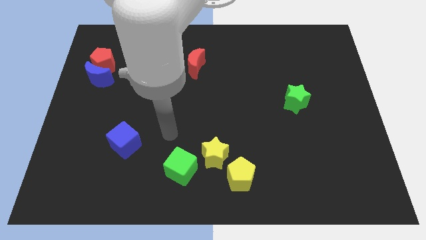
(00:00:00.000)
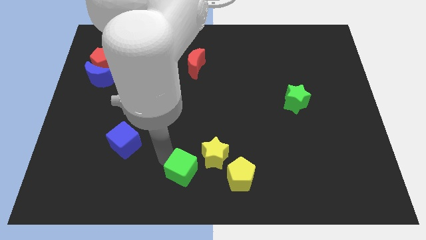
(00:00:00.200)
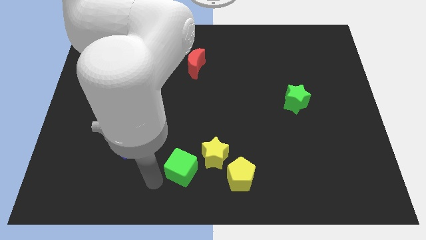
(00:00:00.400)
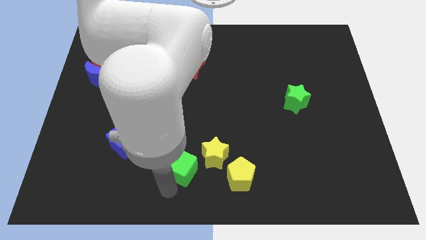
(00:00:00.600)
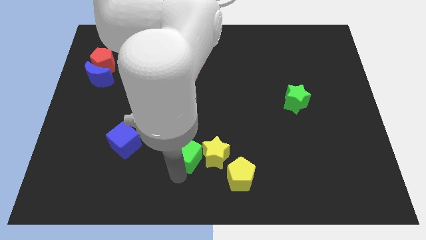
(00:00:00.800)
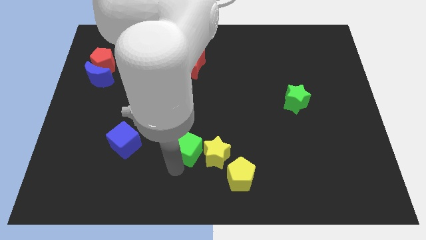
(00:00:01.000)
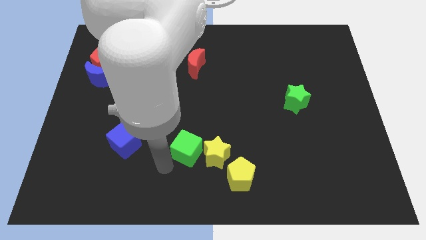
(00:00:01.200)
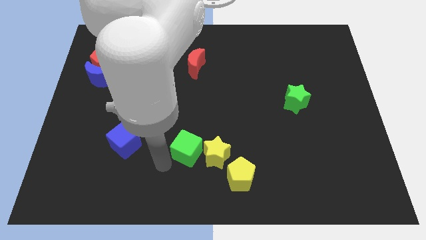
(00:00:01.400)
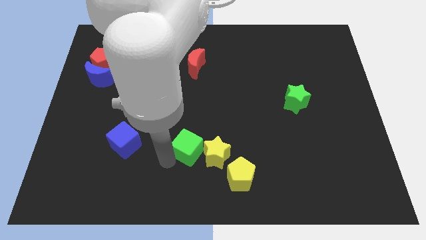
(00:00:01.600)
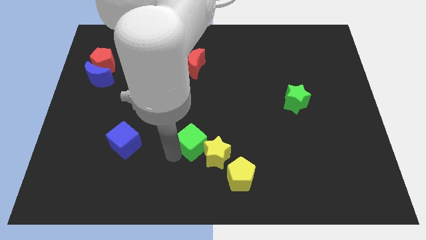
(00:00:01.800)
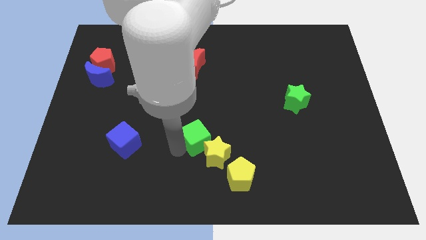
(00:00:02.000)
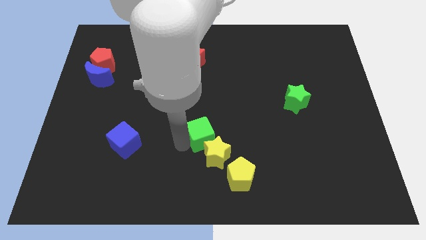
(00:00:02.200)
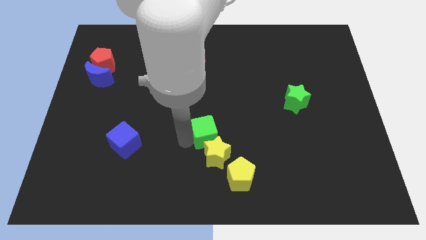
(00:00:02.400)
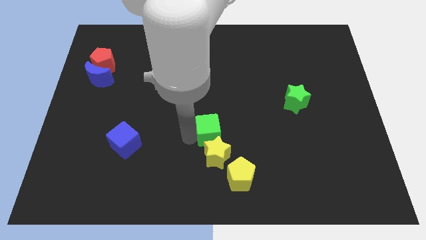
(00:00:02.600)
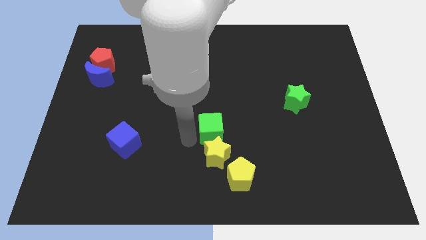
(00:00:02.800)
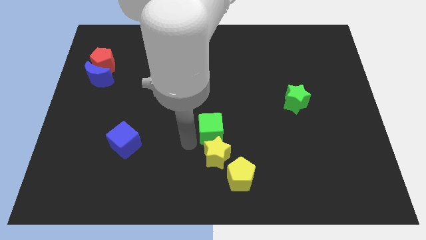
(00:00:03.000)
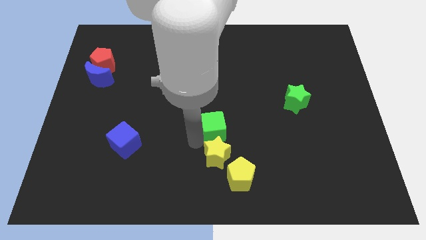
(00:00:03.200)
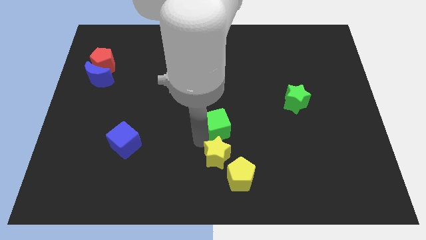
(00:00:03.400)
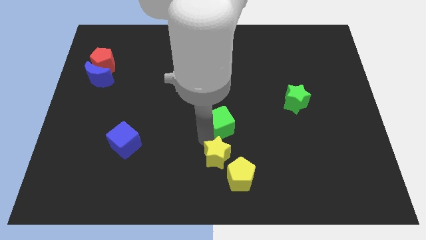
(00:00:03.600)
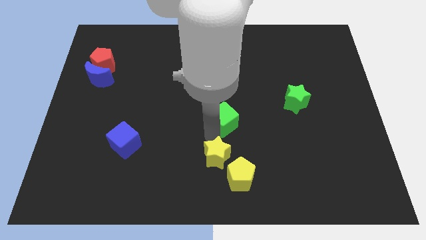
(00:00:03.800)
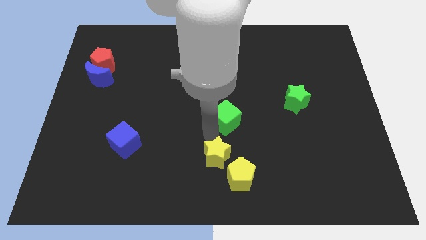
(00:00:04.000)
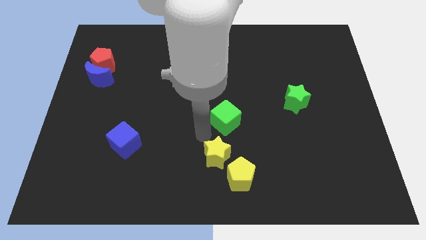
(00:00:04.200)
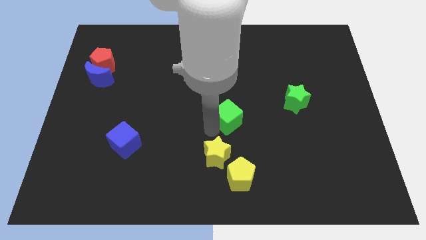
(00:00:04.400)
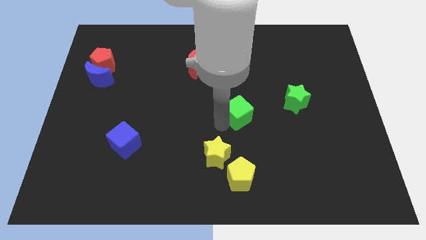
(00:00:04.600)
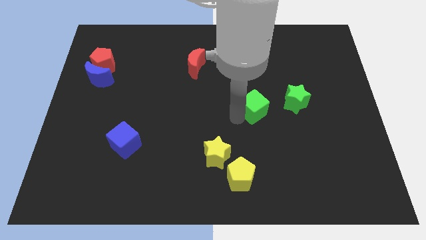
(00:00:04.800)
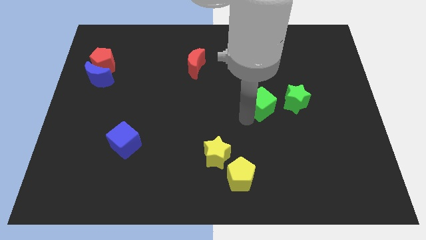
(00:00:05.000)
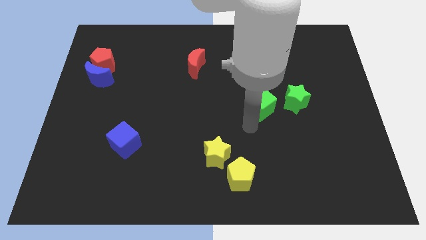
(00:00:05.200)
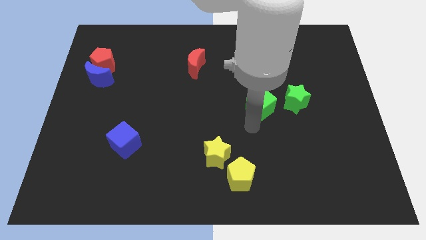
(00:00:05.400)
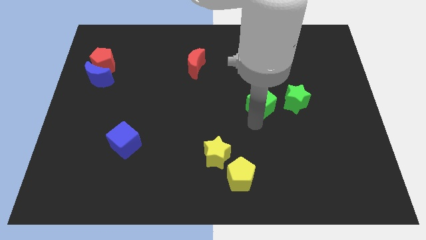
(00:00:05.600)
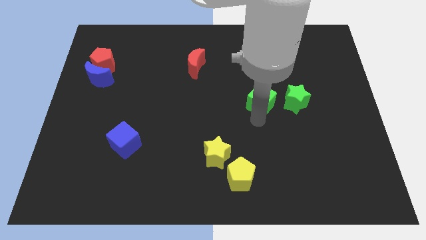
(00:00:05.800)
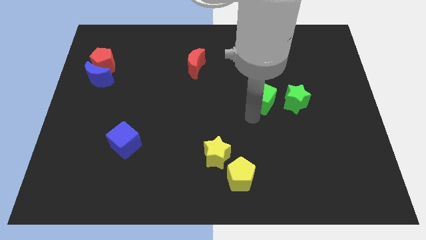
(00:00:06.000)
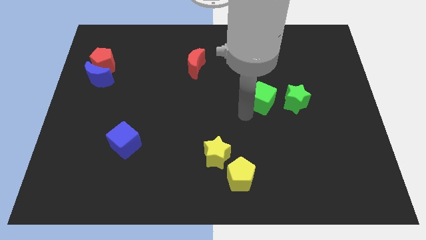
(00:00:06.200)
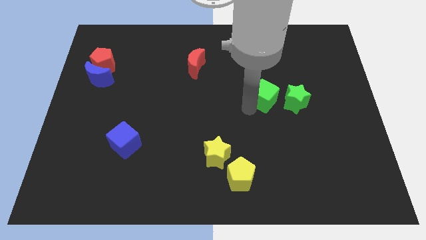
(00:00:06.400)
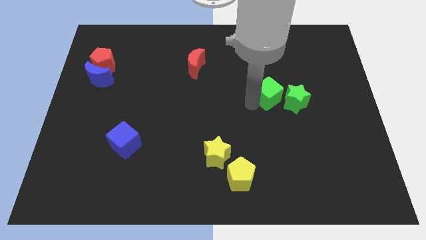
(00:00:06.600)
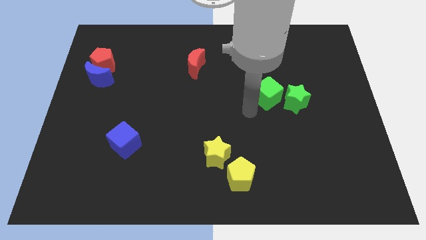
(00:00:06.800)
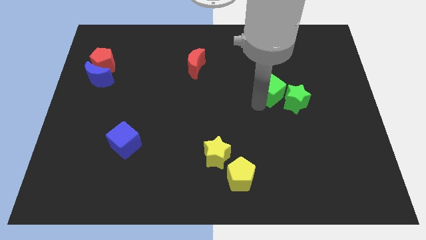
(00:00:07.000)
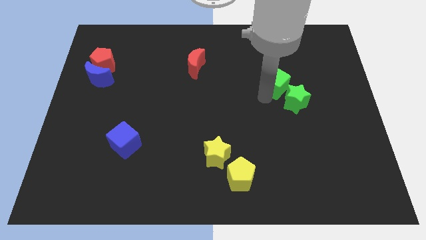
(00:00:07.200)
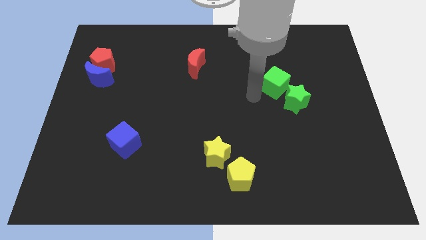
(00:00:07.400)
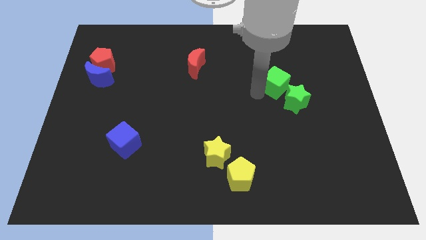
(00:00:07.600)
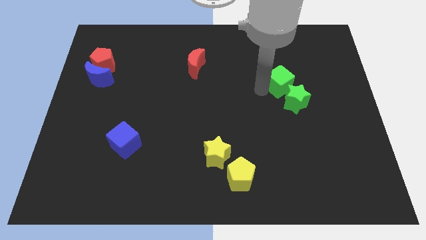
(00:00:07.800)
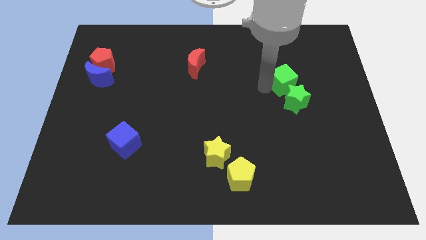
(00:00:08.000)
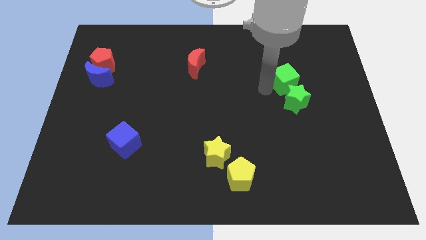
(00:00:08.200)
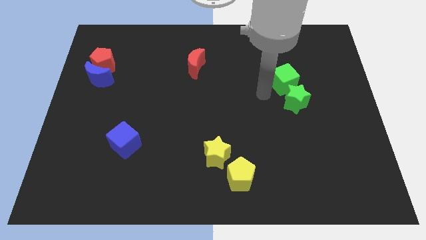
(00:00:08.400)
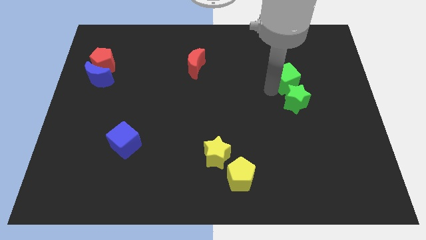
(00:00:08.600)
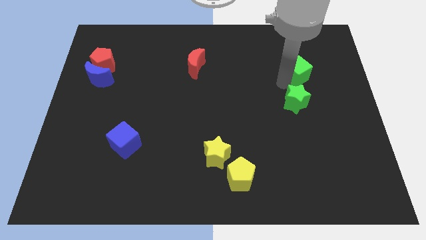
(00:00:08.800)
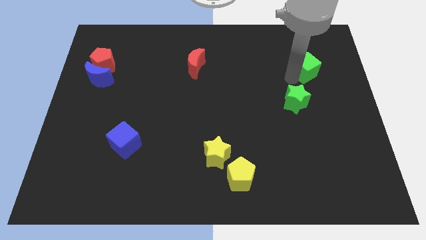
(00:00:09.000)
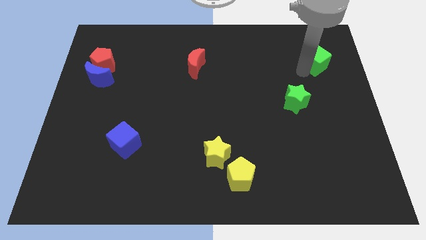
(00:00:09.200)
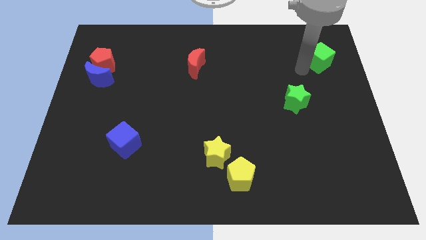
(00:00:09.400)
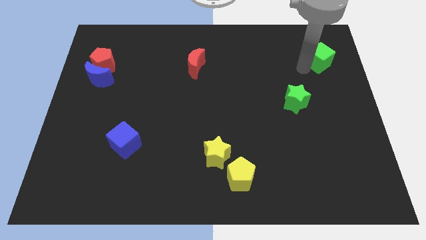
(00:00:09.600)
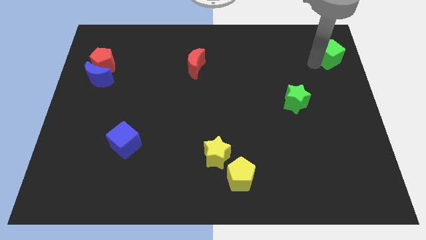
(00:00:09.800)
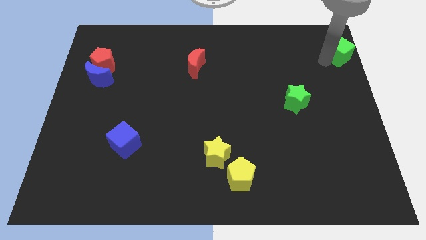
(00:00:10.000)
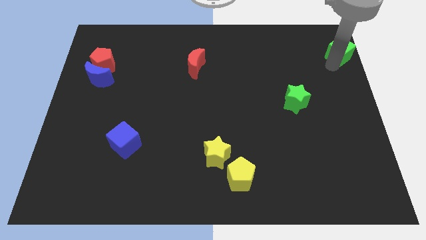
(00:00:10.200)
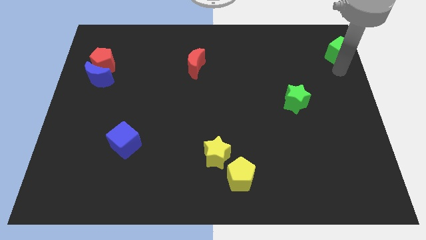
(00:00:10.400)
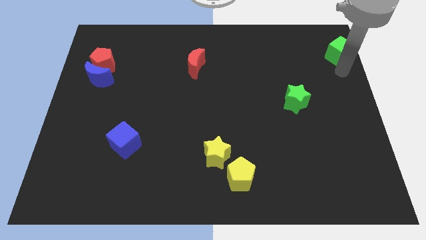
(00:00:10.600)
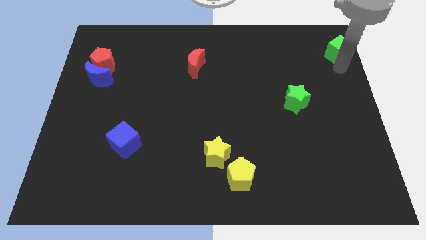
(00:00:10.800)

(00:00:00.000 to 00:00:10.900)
slide the green cube to the top right
